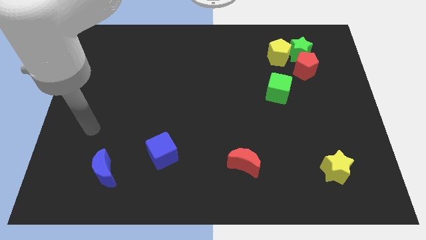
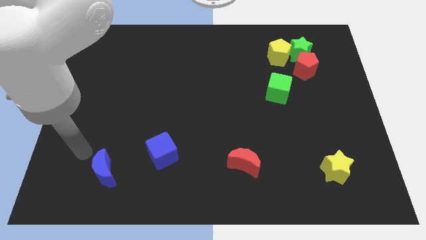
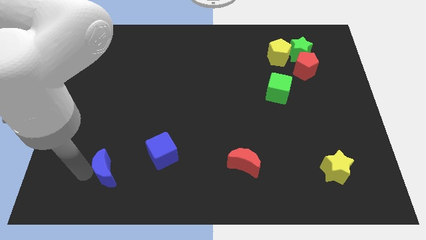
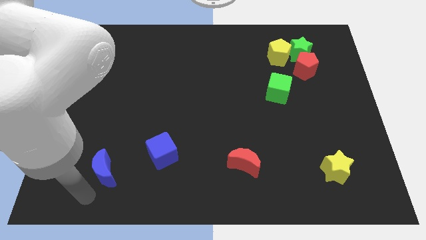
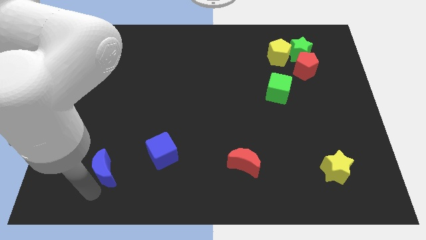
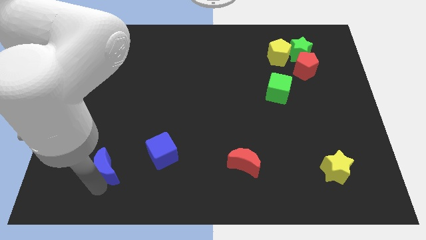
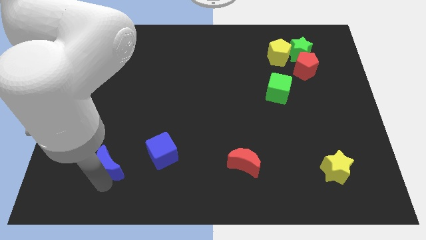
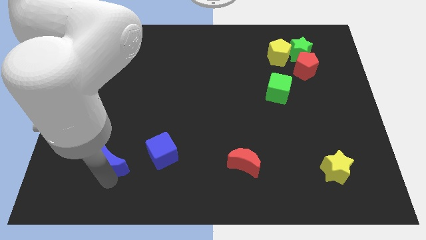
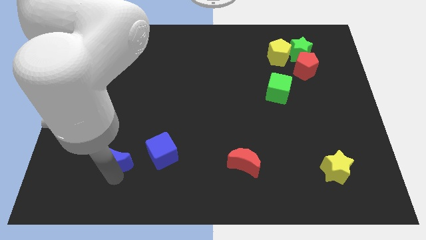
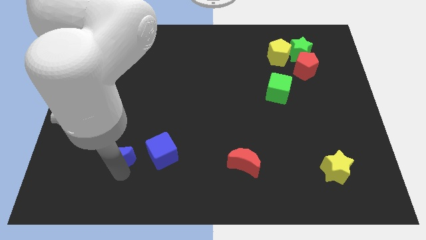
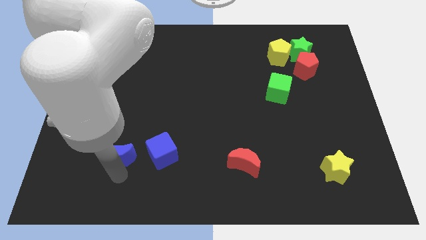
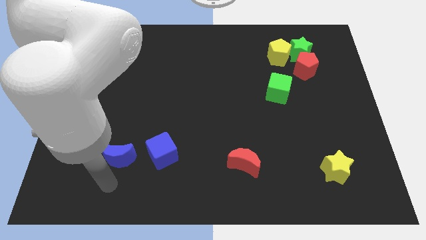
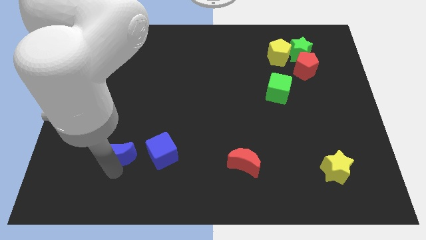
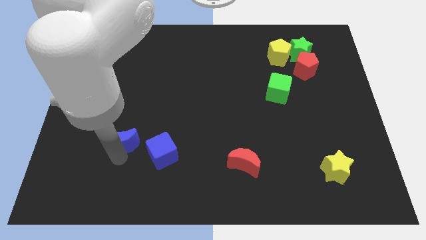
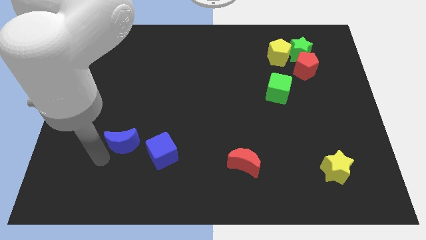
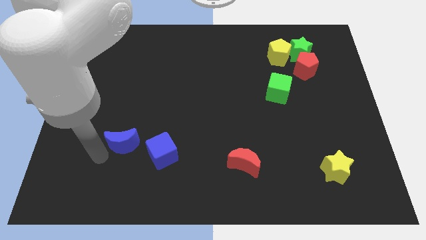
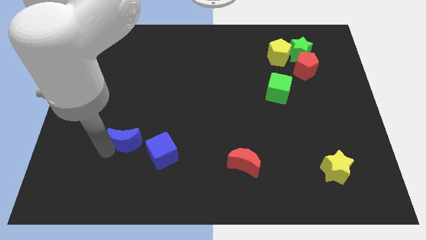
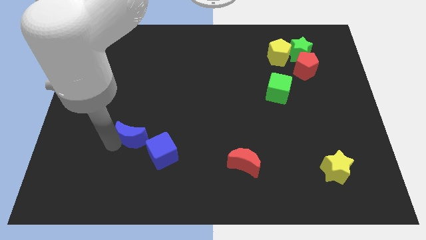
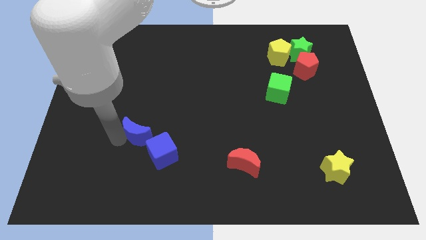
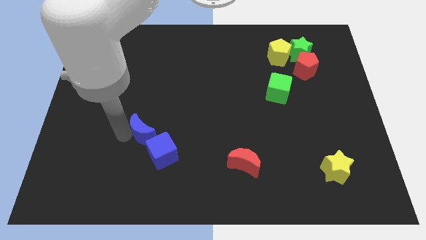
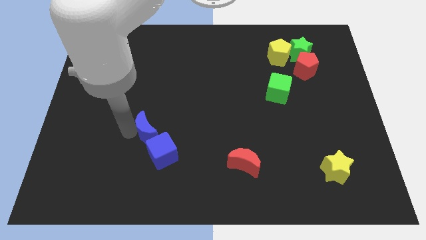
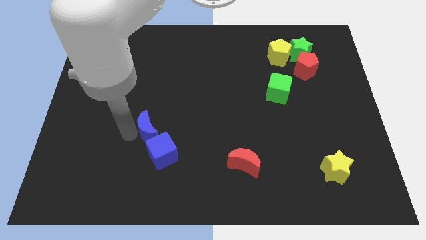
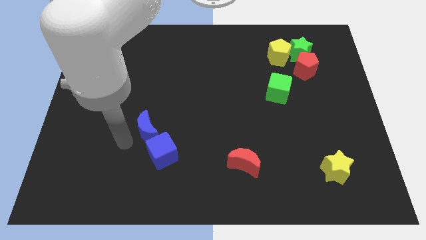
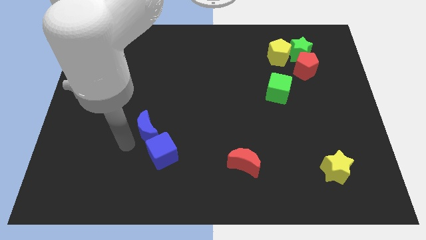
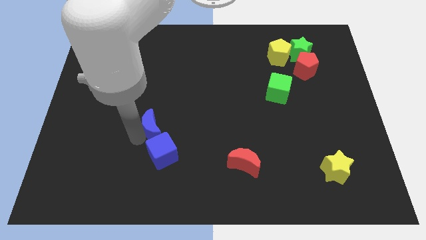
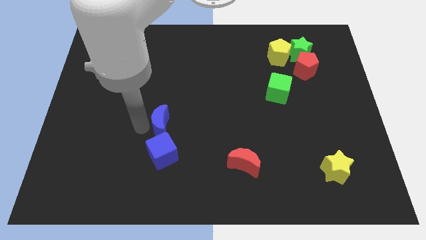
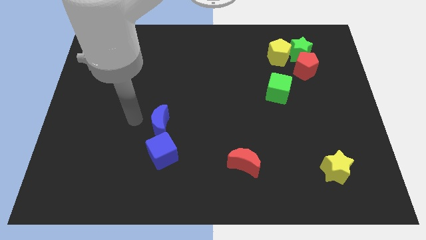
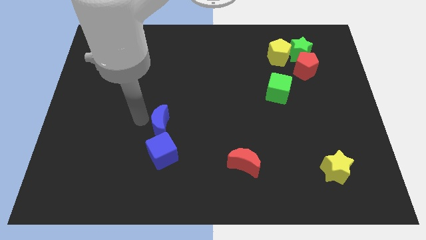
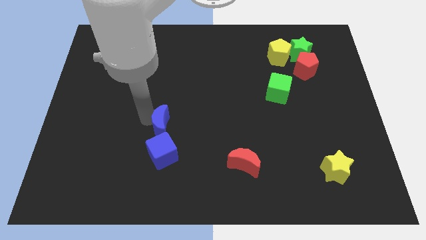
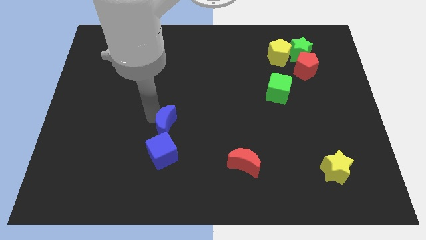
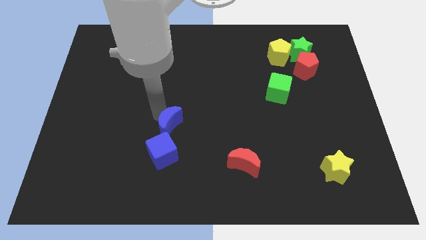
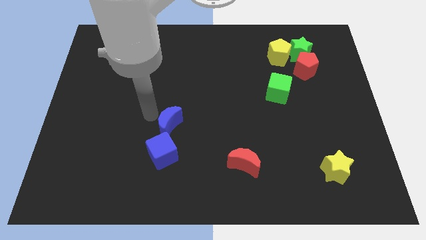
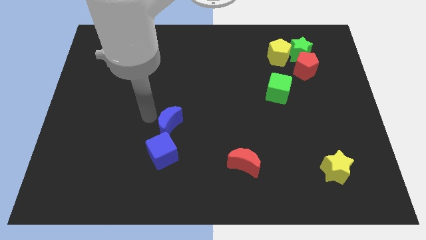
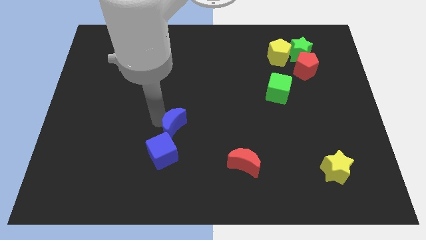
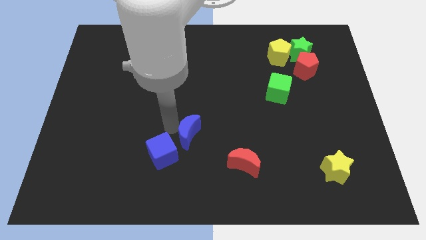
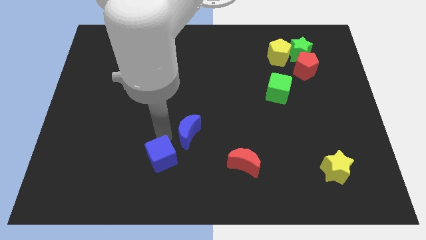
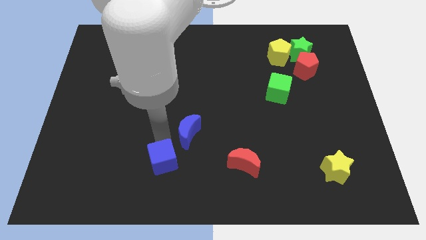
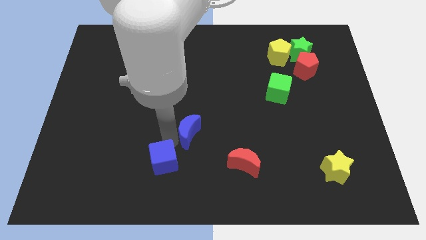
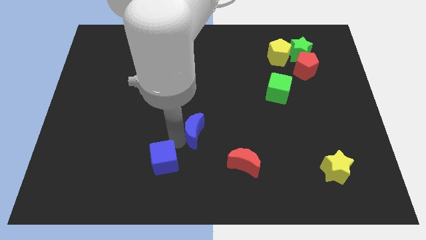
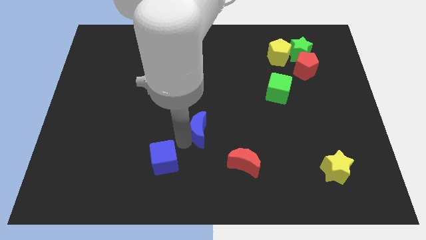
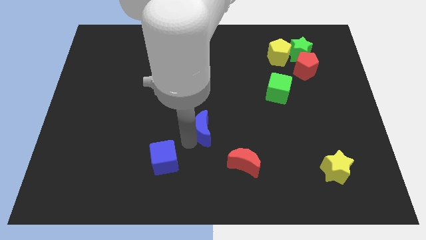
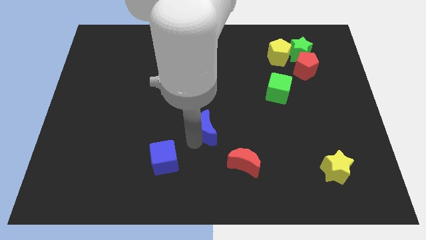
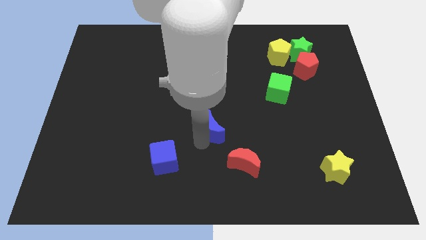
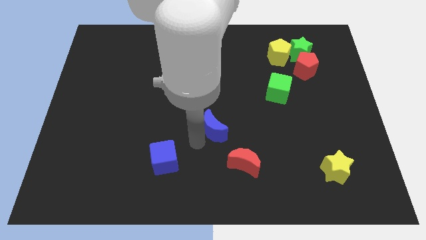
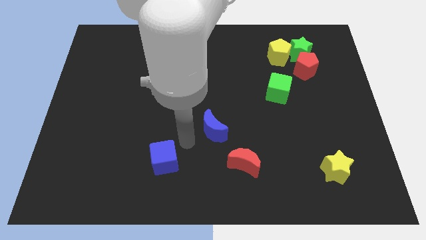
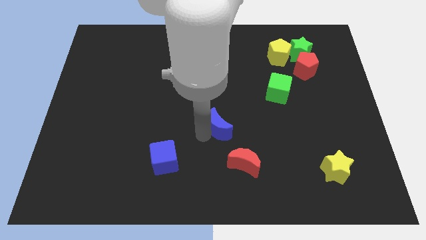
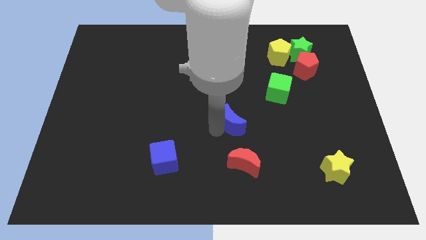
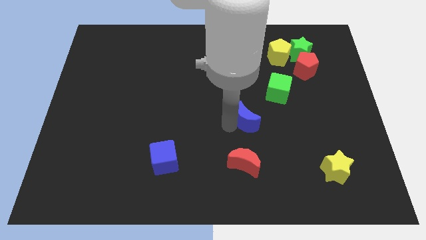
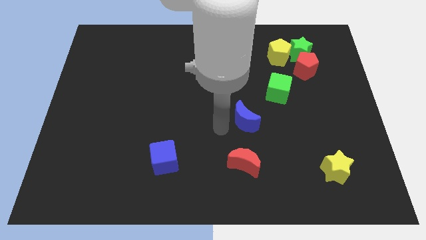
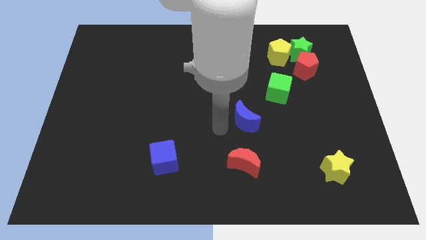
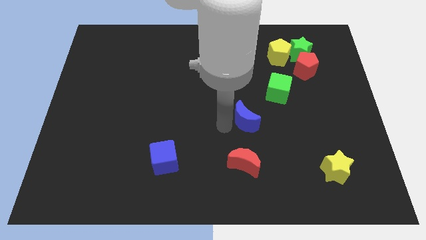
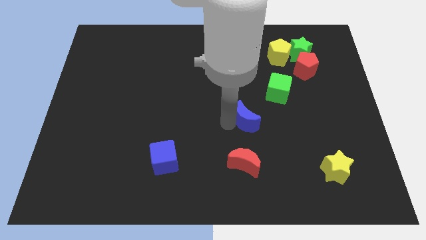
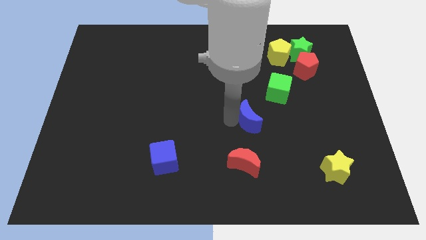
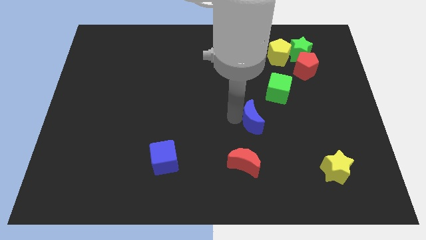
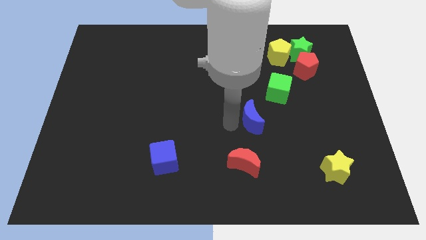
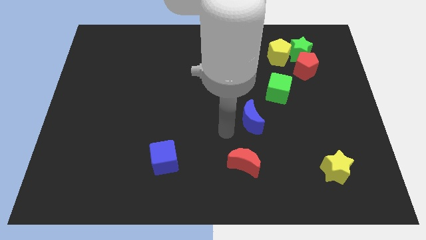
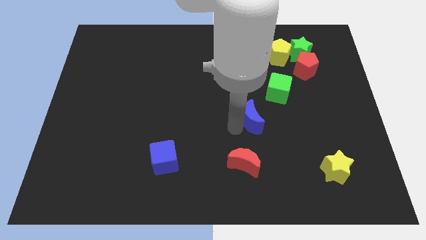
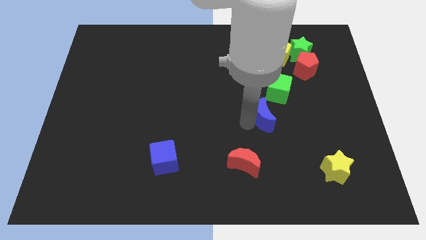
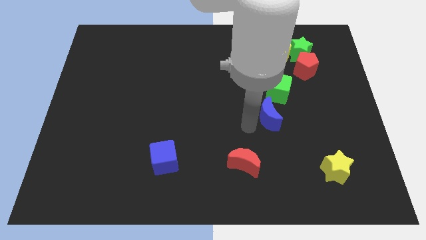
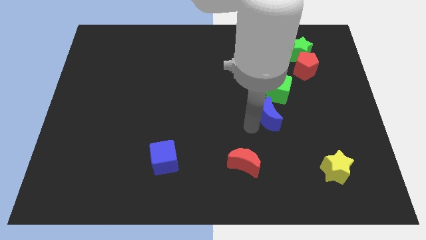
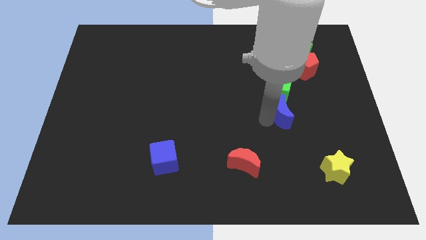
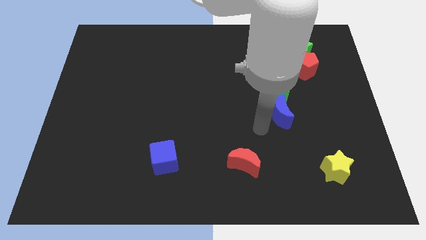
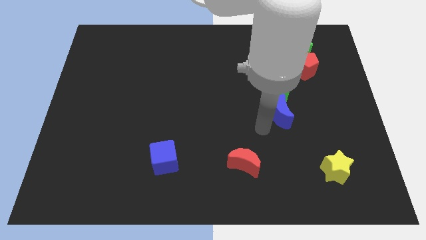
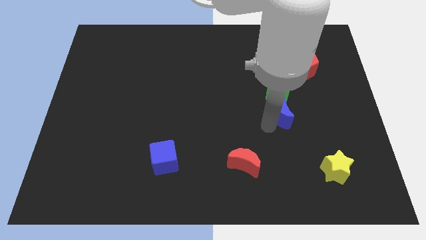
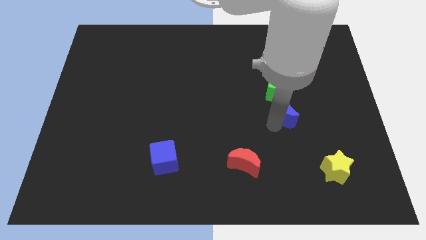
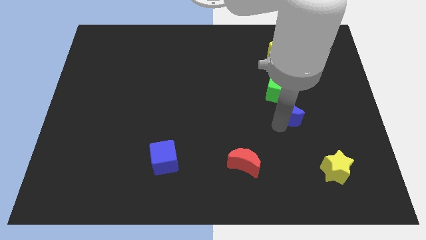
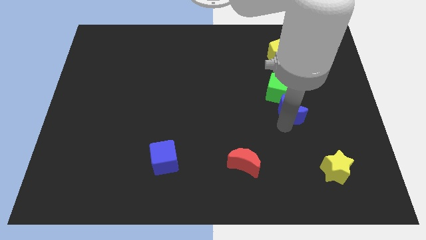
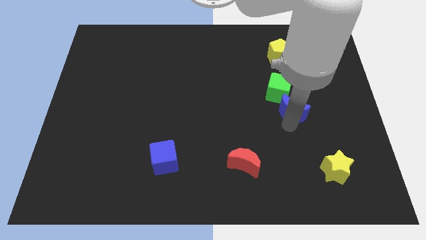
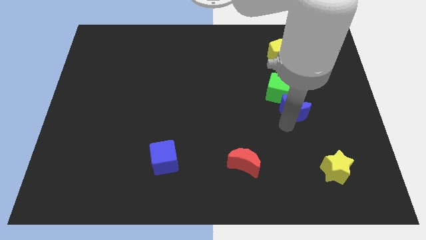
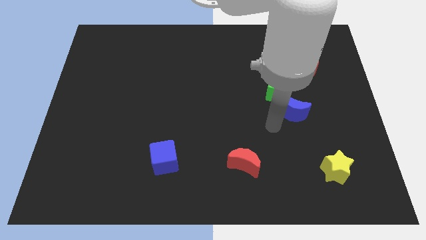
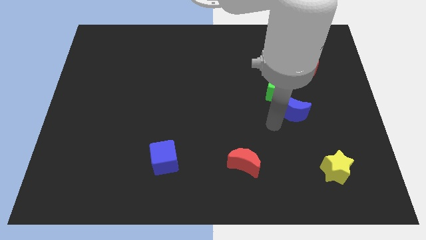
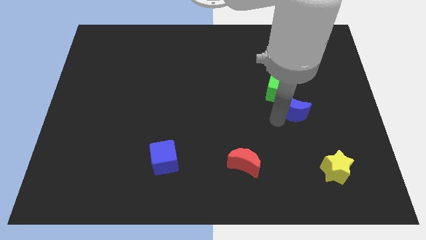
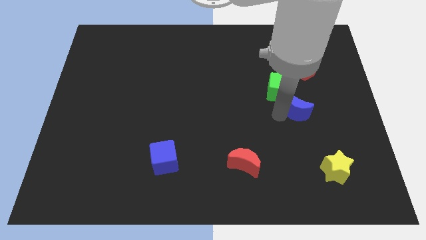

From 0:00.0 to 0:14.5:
push the blue moon below the red pentagon

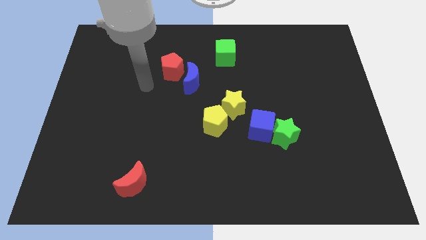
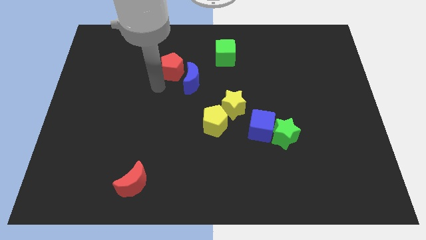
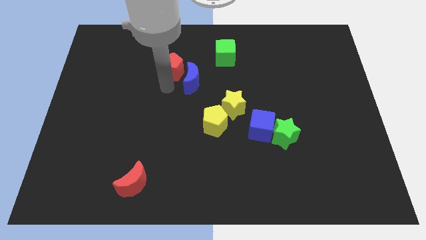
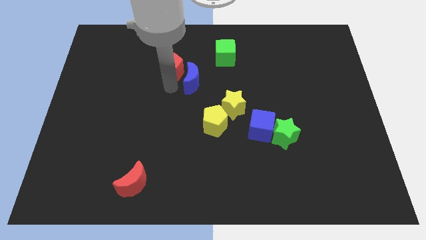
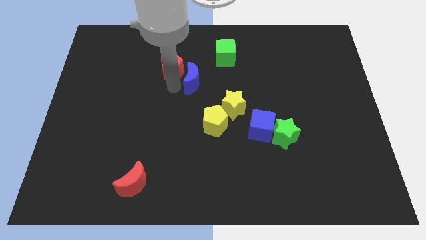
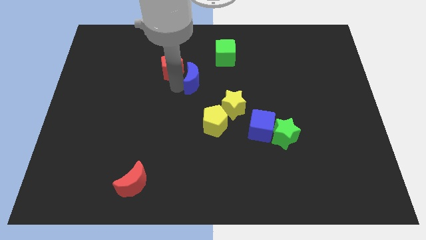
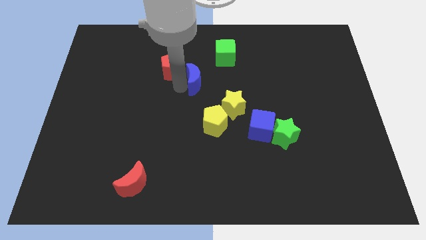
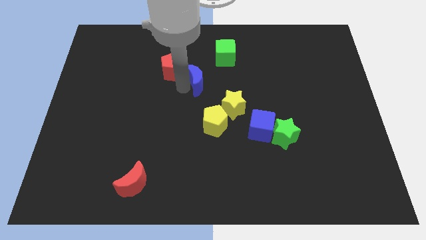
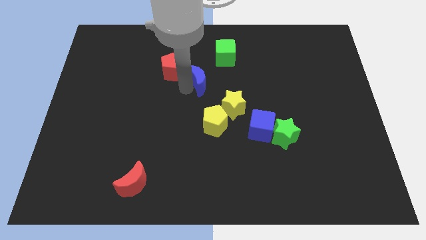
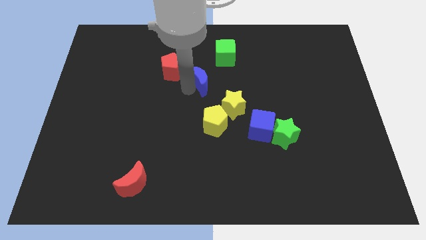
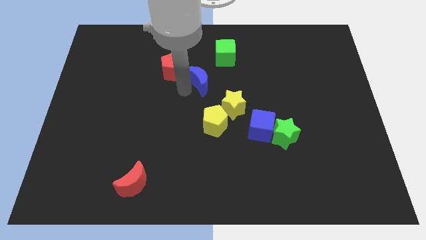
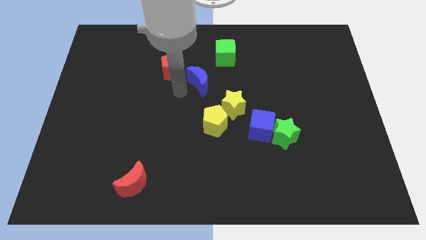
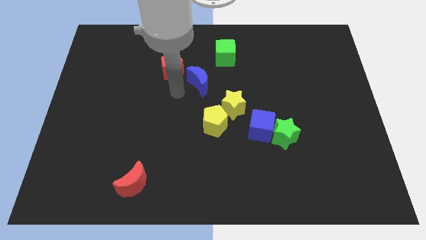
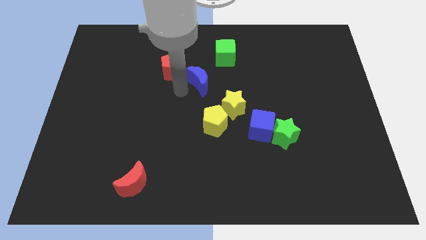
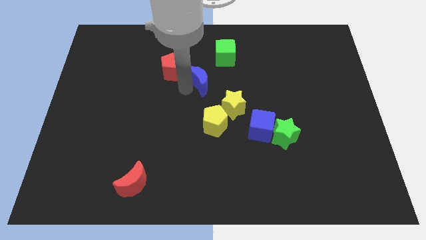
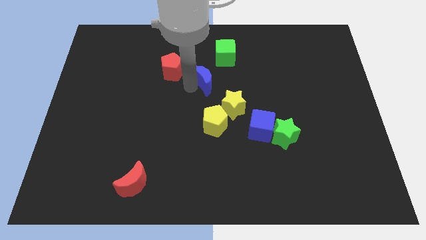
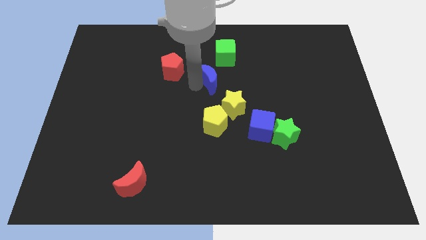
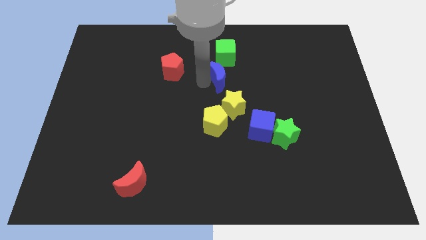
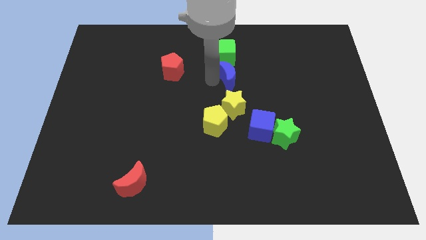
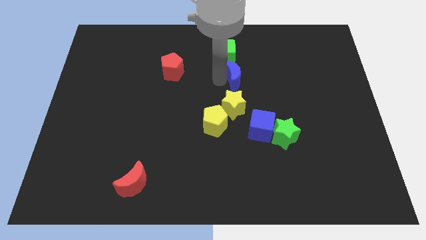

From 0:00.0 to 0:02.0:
push the blue moon diagonally down and to the right of the green cube
